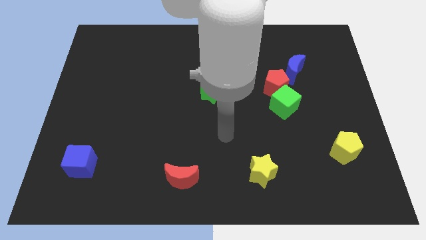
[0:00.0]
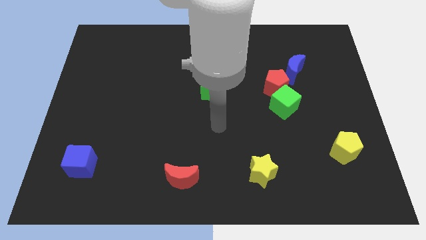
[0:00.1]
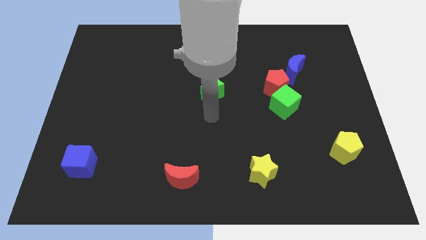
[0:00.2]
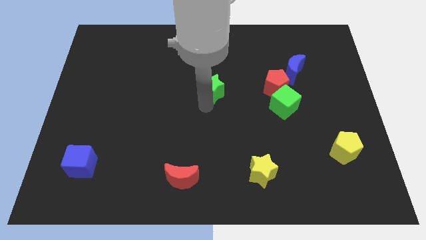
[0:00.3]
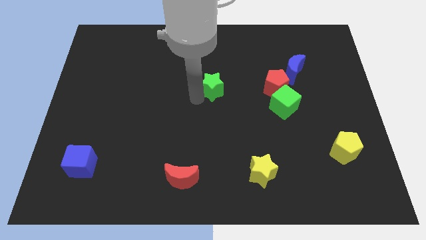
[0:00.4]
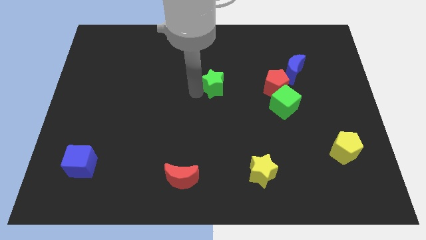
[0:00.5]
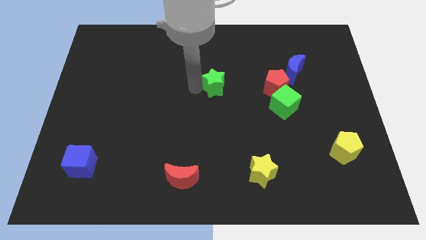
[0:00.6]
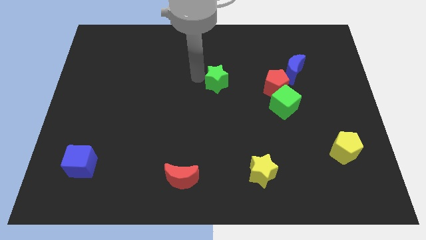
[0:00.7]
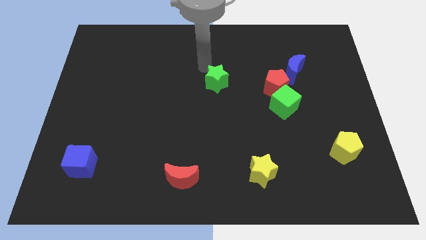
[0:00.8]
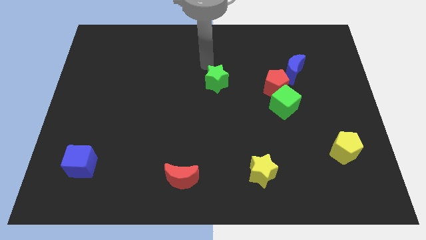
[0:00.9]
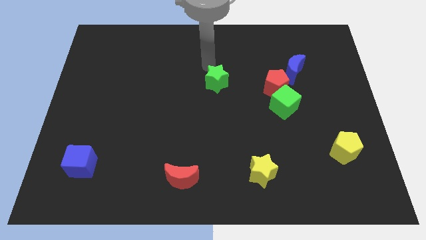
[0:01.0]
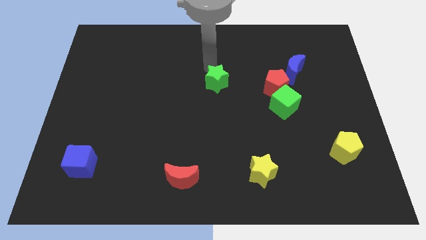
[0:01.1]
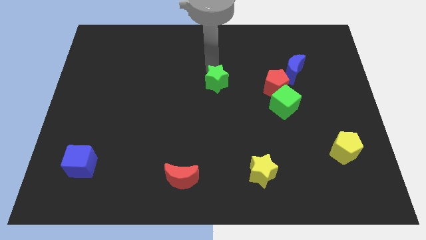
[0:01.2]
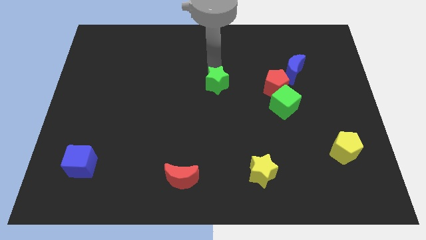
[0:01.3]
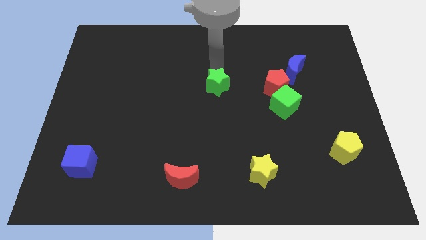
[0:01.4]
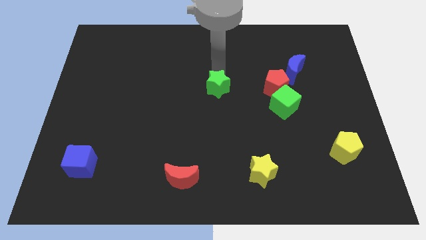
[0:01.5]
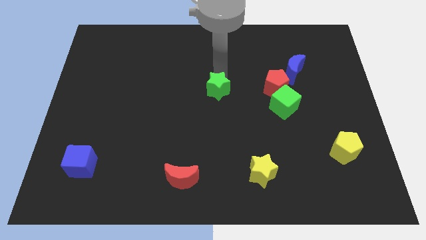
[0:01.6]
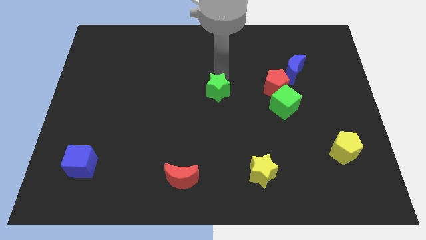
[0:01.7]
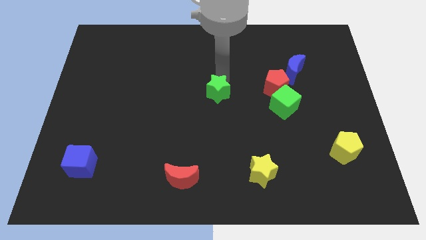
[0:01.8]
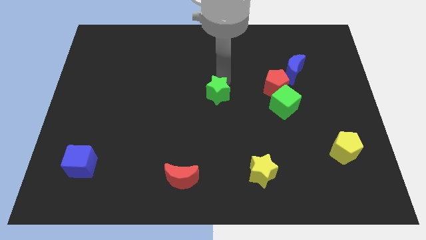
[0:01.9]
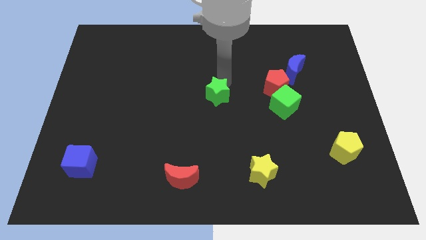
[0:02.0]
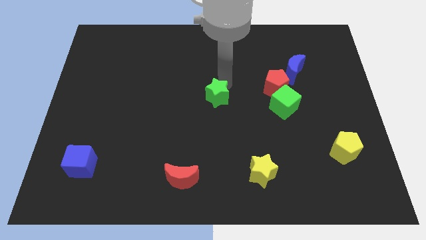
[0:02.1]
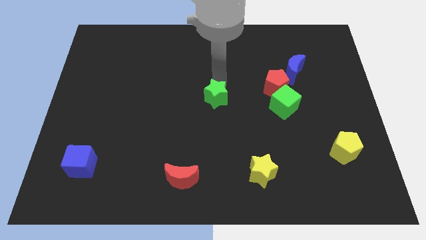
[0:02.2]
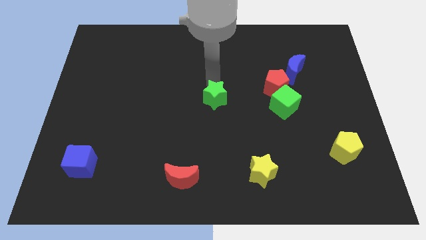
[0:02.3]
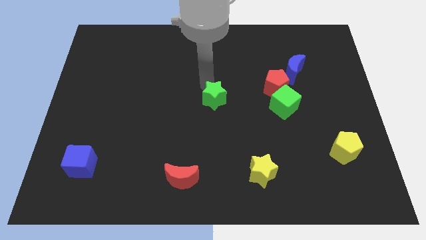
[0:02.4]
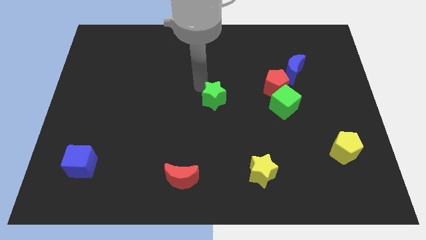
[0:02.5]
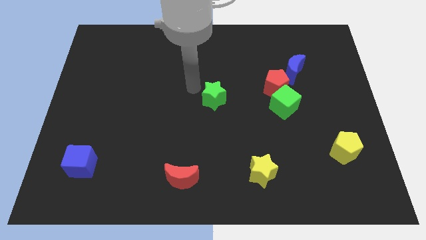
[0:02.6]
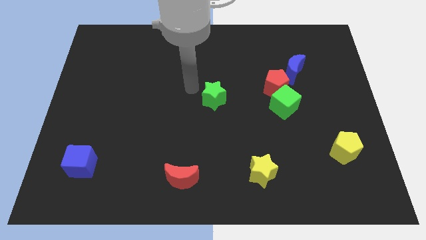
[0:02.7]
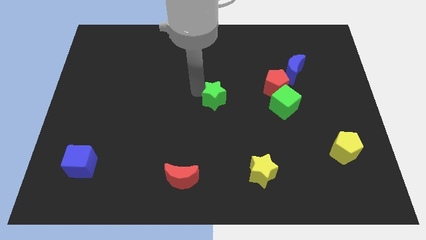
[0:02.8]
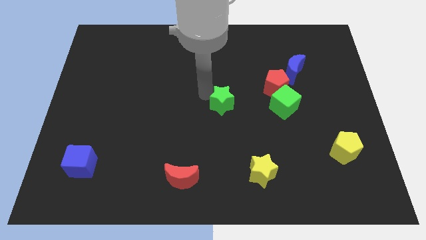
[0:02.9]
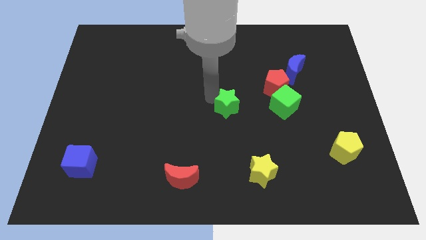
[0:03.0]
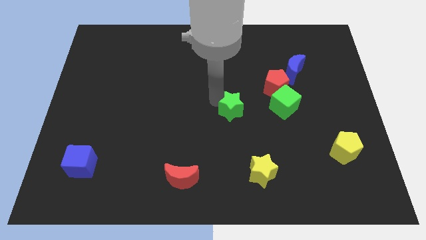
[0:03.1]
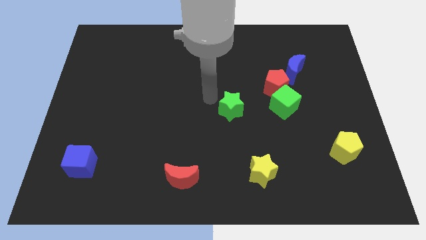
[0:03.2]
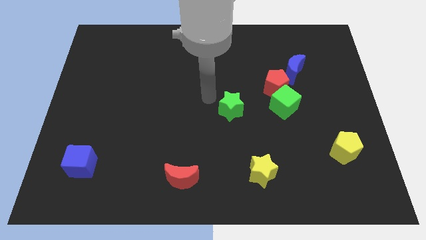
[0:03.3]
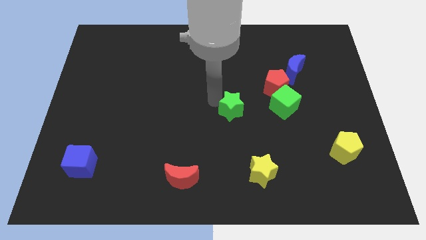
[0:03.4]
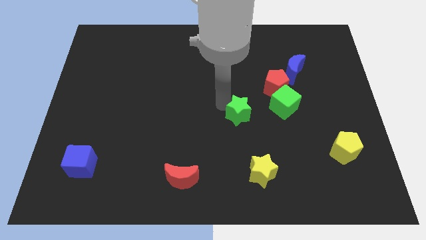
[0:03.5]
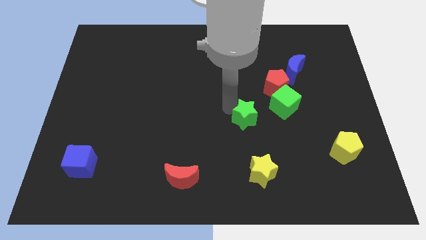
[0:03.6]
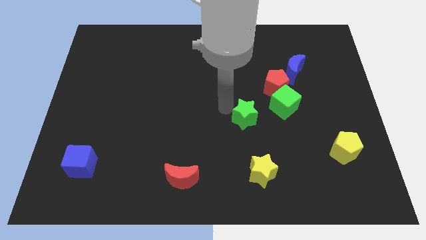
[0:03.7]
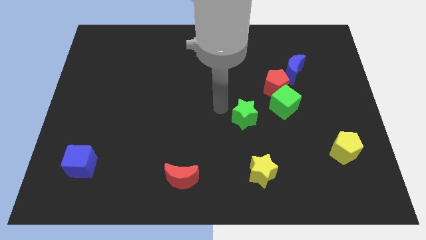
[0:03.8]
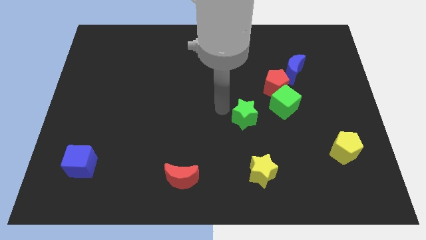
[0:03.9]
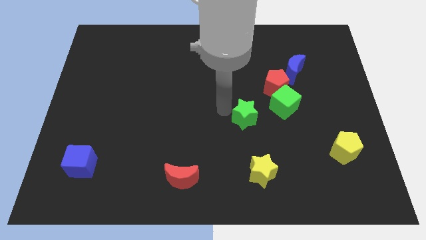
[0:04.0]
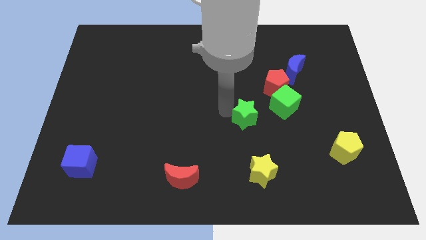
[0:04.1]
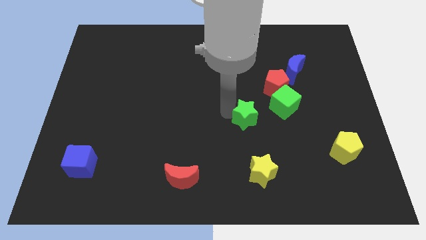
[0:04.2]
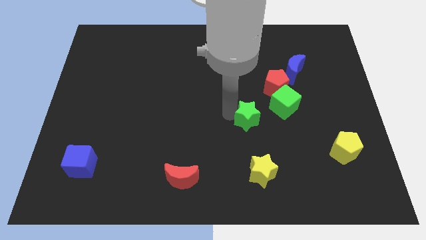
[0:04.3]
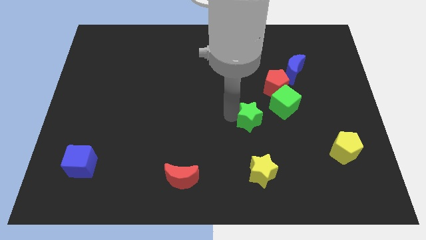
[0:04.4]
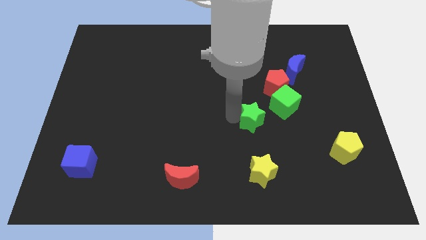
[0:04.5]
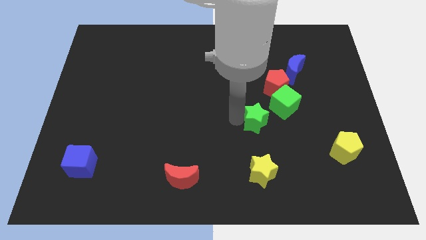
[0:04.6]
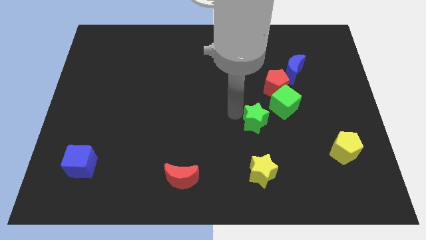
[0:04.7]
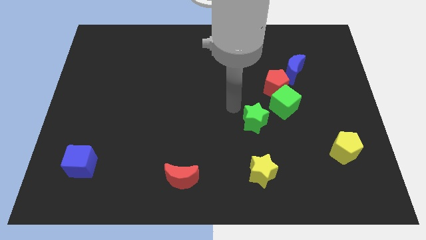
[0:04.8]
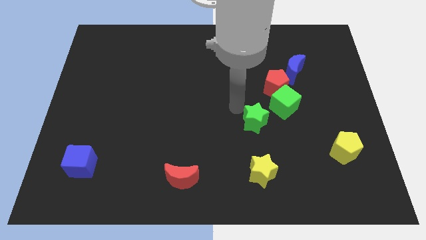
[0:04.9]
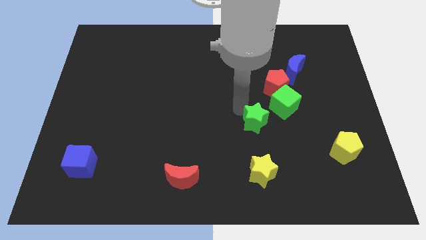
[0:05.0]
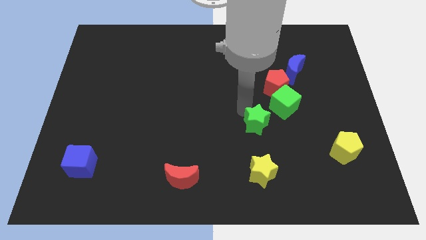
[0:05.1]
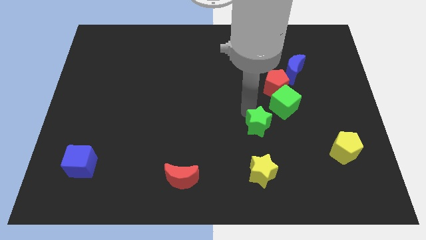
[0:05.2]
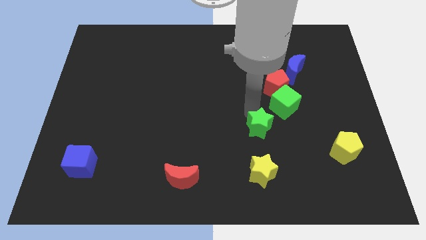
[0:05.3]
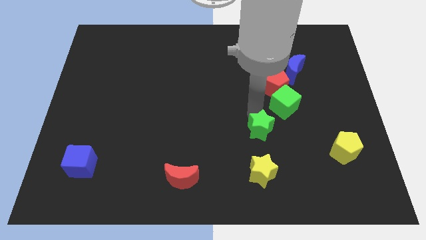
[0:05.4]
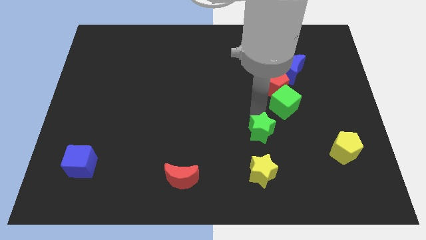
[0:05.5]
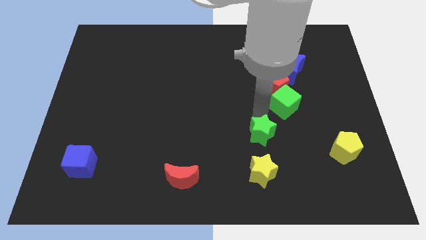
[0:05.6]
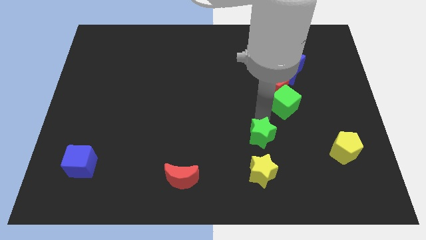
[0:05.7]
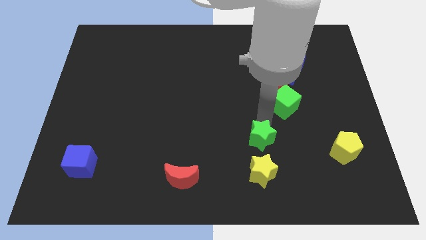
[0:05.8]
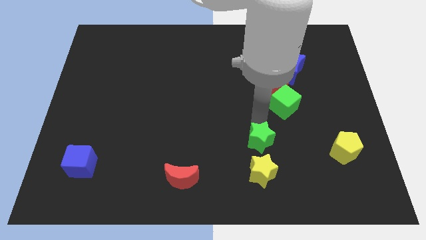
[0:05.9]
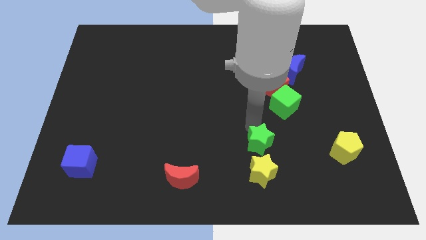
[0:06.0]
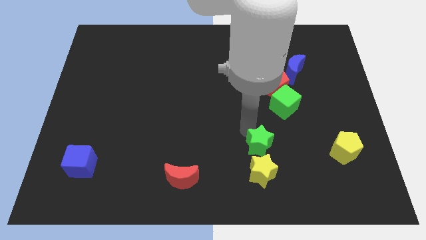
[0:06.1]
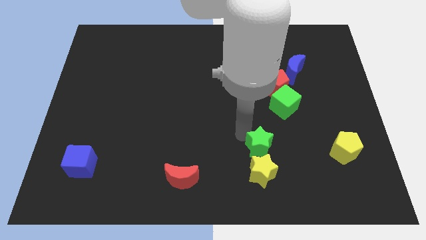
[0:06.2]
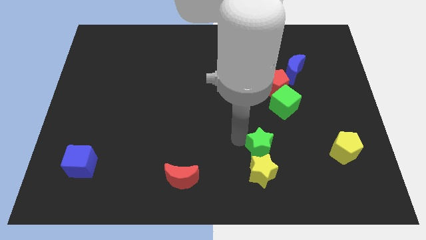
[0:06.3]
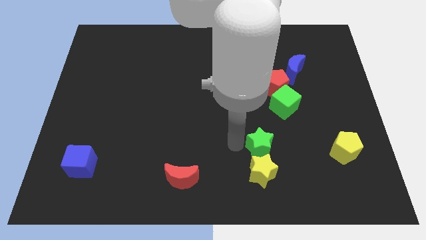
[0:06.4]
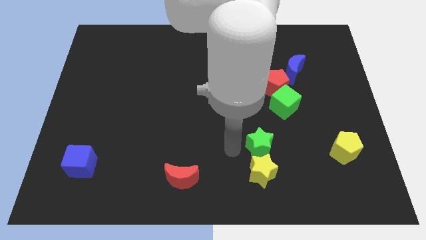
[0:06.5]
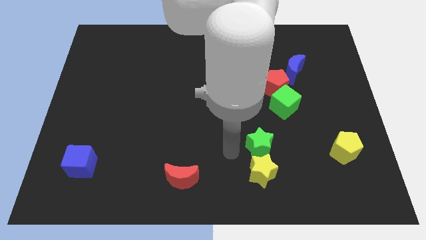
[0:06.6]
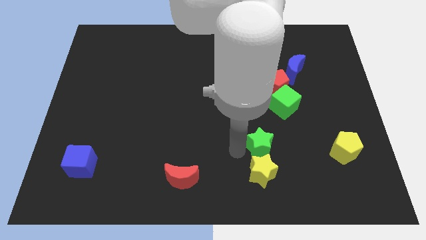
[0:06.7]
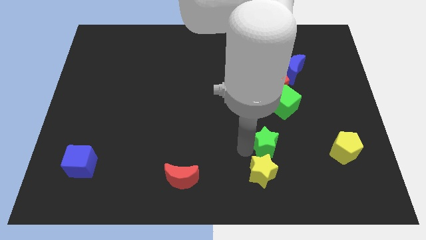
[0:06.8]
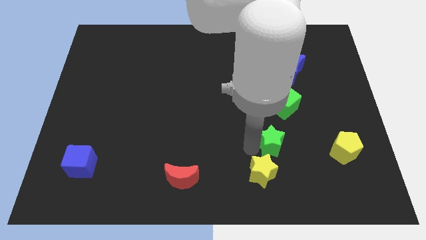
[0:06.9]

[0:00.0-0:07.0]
slide the green star to the left of the yellow pentagon

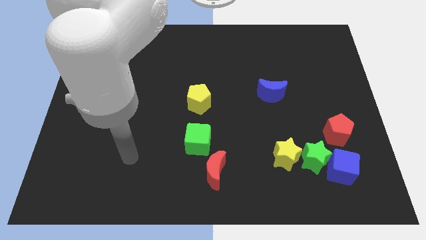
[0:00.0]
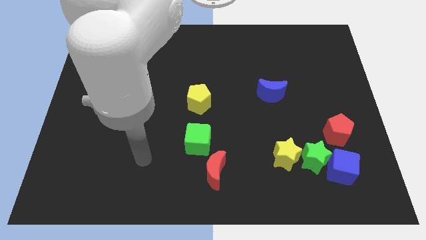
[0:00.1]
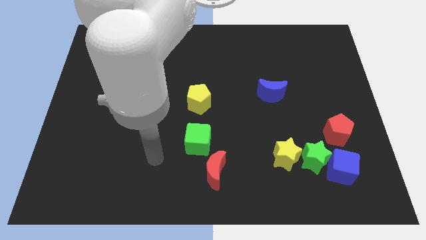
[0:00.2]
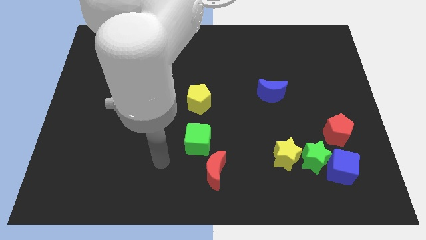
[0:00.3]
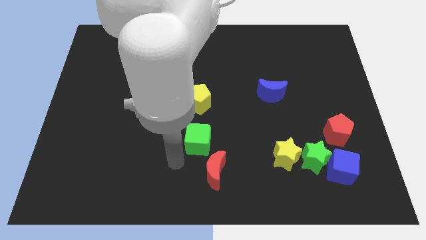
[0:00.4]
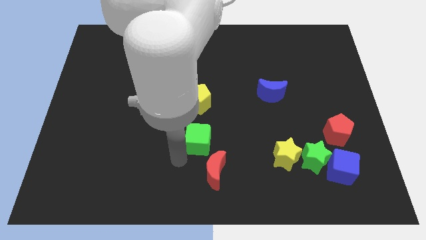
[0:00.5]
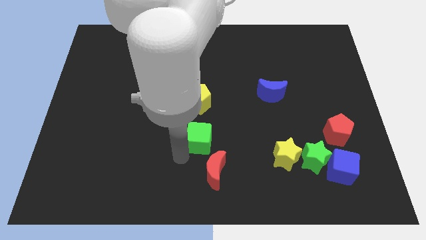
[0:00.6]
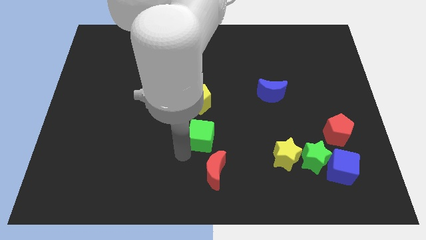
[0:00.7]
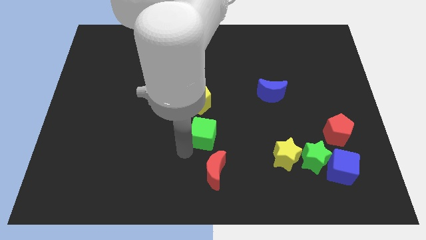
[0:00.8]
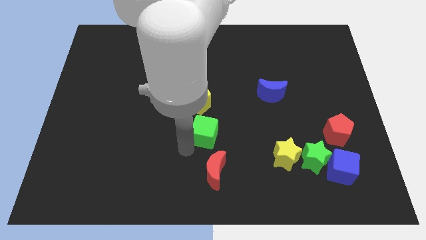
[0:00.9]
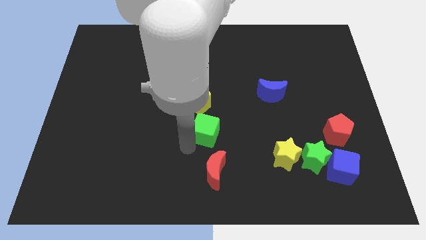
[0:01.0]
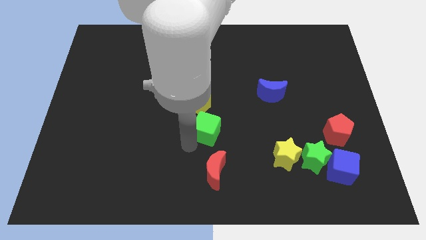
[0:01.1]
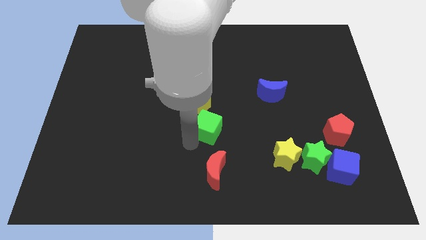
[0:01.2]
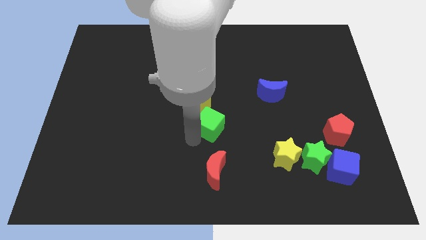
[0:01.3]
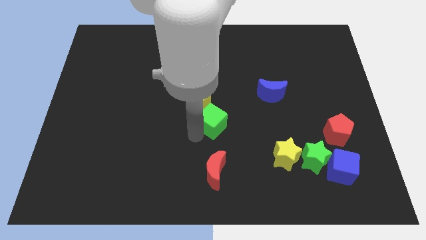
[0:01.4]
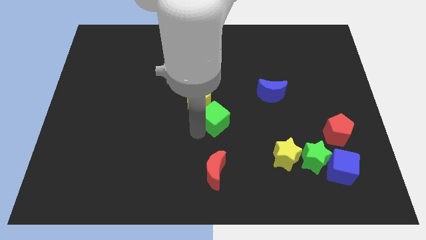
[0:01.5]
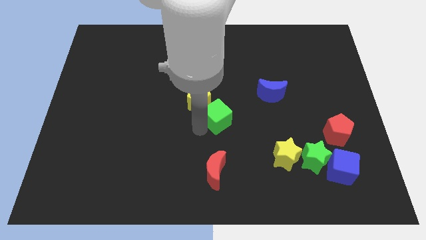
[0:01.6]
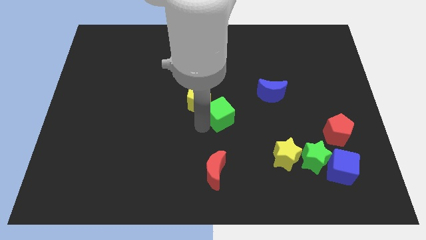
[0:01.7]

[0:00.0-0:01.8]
move the green cube to the right of the yellow pentagon
